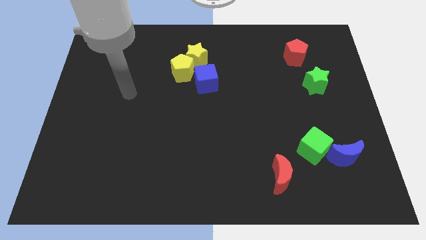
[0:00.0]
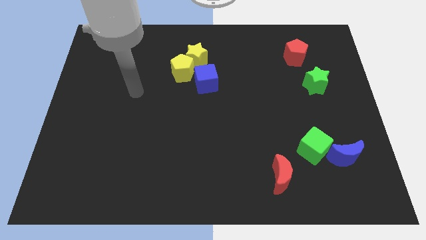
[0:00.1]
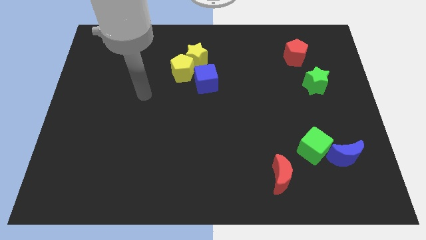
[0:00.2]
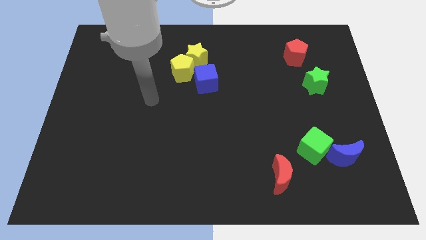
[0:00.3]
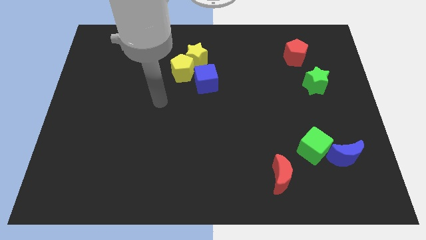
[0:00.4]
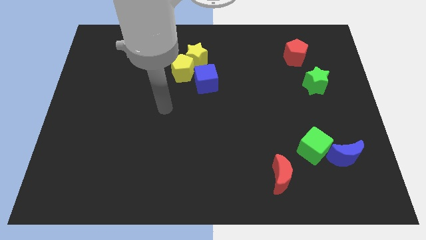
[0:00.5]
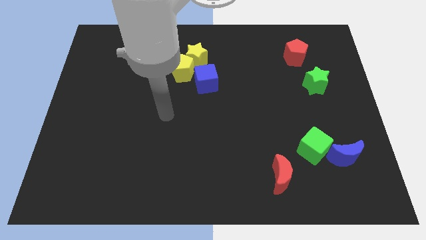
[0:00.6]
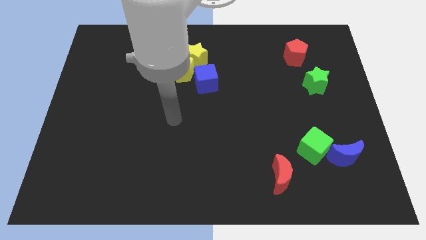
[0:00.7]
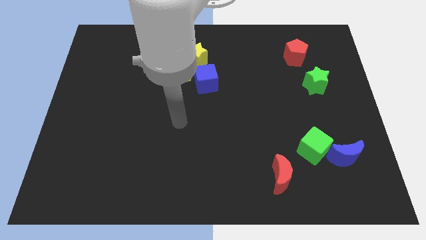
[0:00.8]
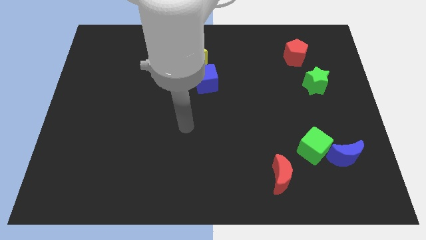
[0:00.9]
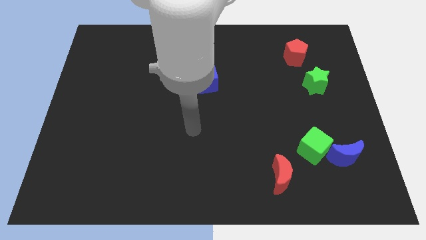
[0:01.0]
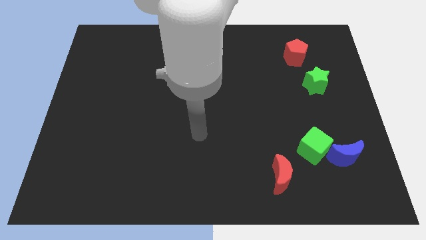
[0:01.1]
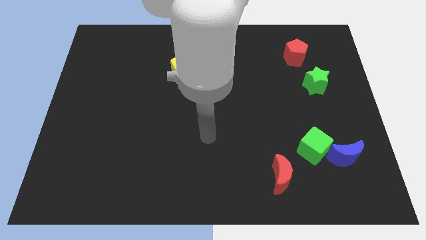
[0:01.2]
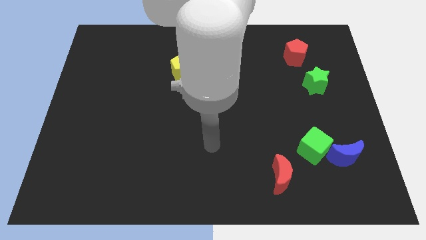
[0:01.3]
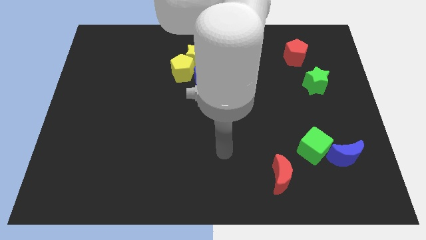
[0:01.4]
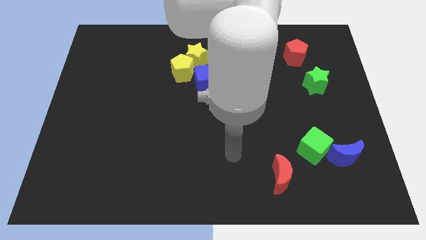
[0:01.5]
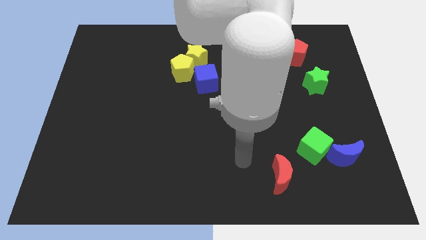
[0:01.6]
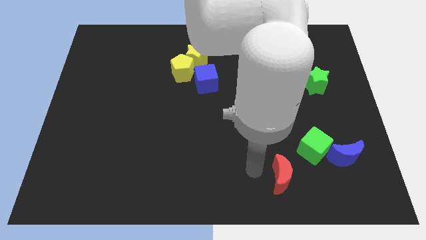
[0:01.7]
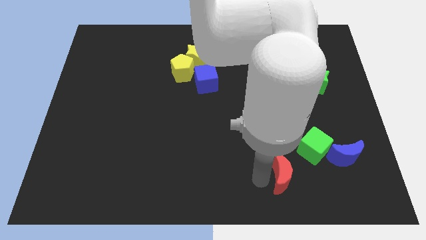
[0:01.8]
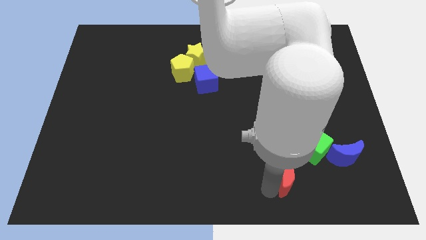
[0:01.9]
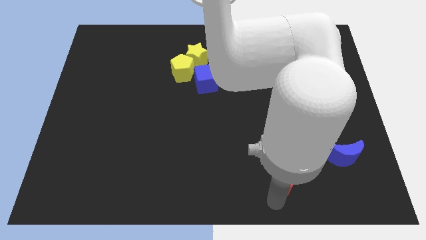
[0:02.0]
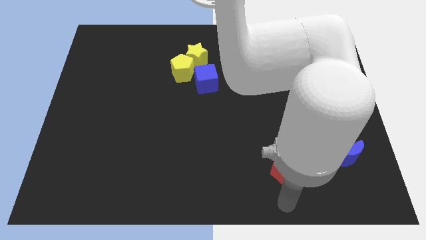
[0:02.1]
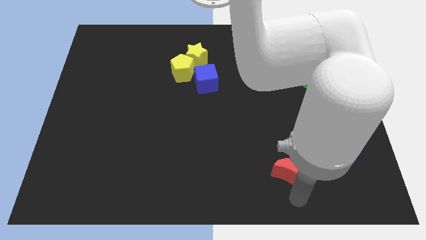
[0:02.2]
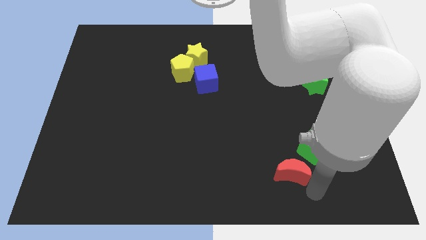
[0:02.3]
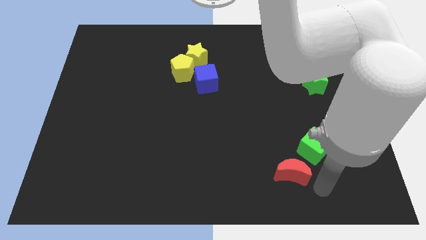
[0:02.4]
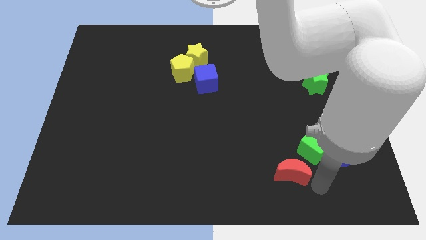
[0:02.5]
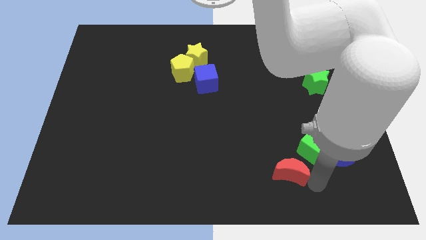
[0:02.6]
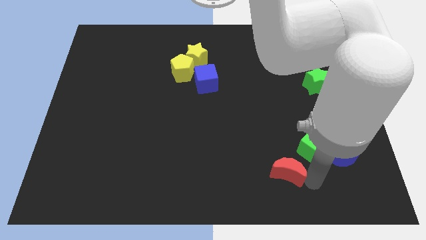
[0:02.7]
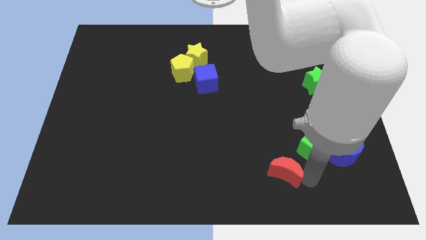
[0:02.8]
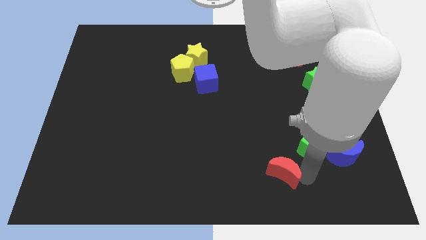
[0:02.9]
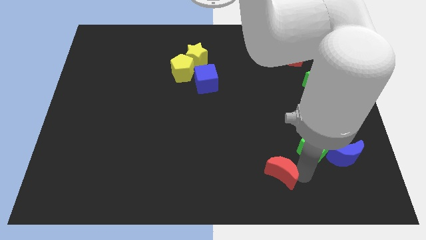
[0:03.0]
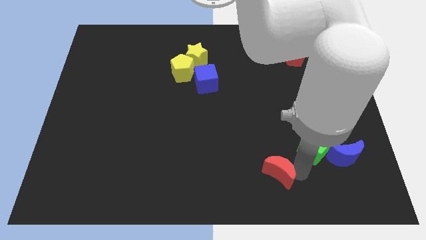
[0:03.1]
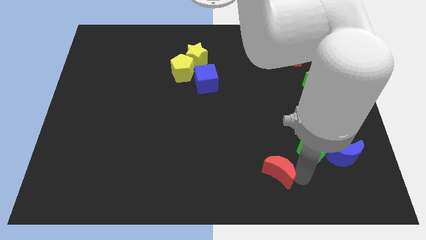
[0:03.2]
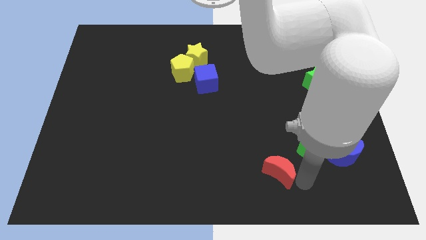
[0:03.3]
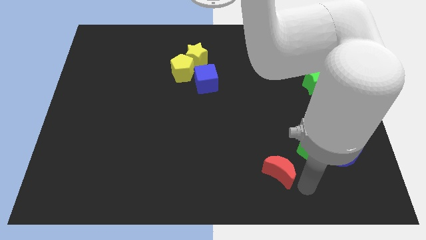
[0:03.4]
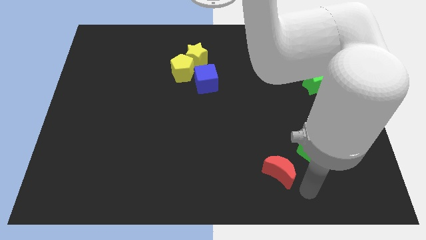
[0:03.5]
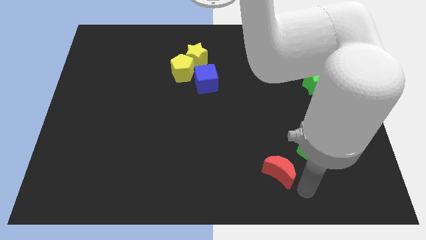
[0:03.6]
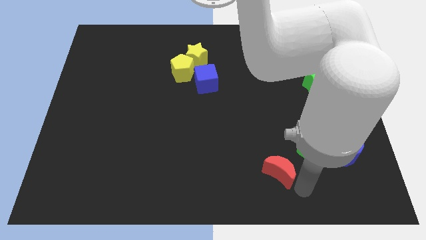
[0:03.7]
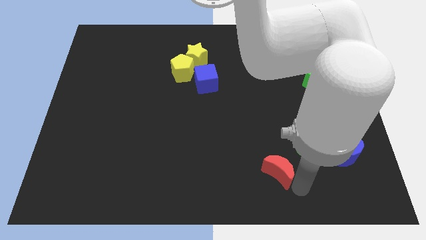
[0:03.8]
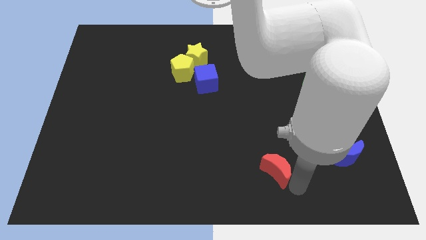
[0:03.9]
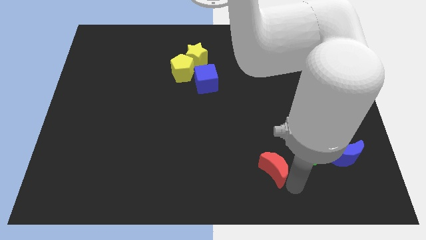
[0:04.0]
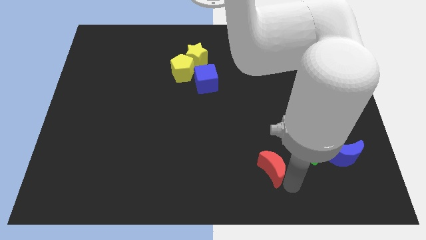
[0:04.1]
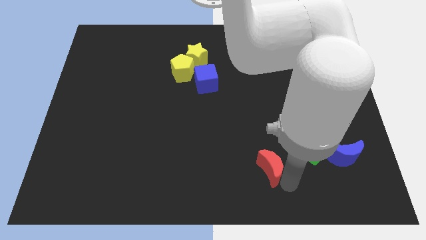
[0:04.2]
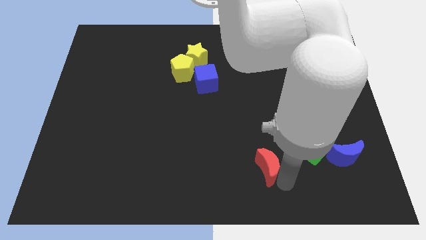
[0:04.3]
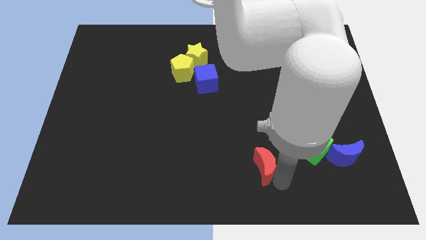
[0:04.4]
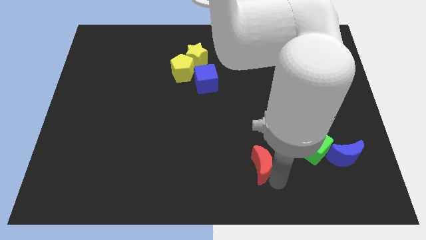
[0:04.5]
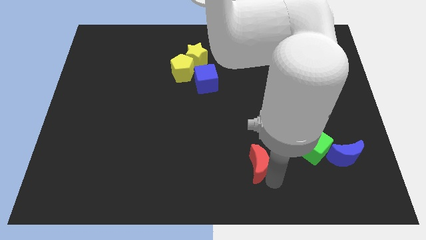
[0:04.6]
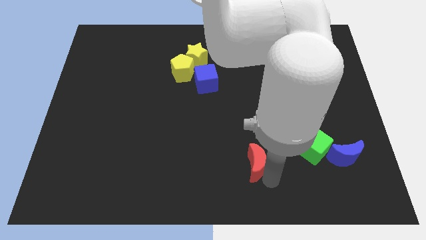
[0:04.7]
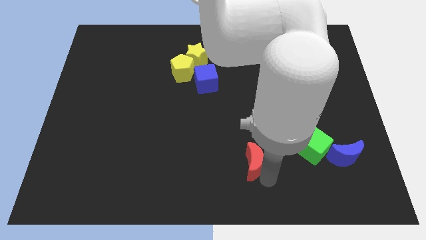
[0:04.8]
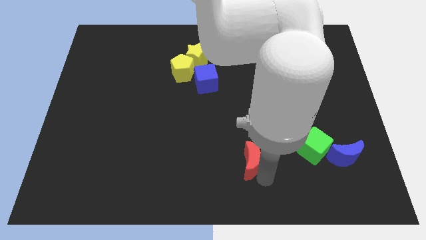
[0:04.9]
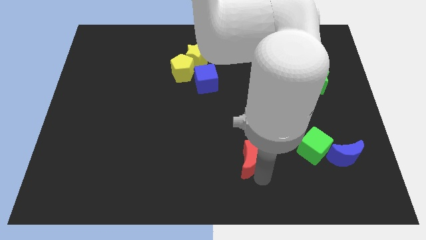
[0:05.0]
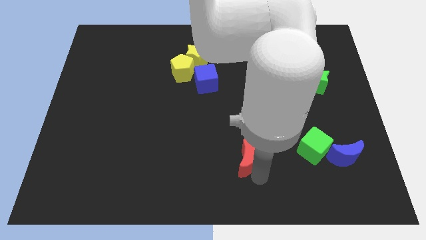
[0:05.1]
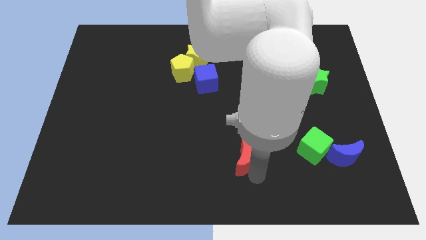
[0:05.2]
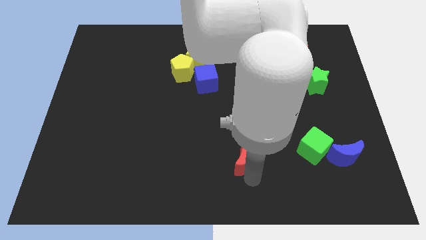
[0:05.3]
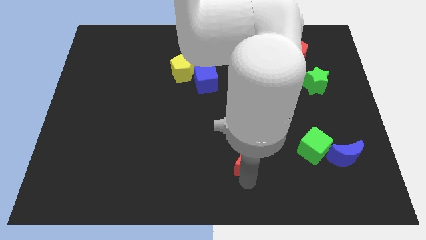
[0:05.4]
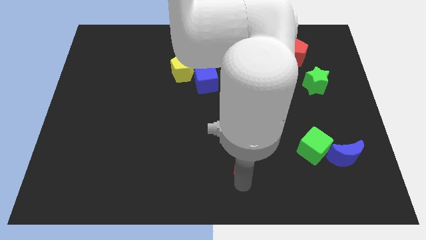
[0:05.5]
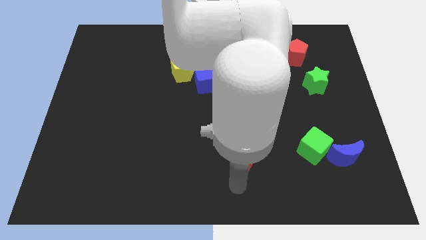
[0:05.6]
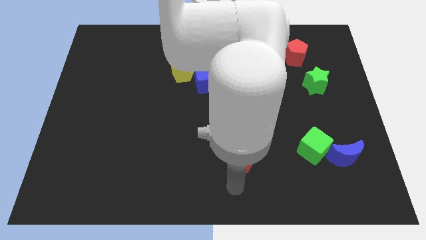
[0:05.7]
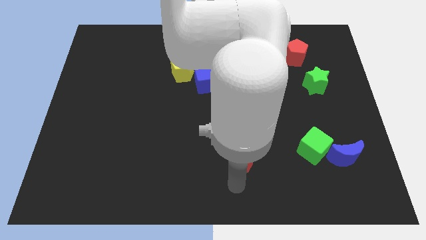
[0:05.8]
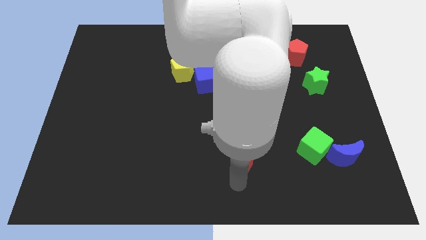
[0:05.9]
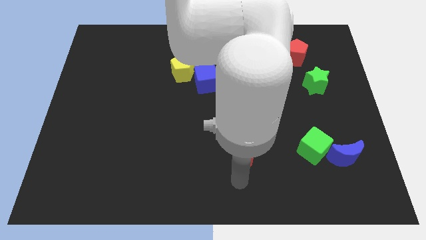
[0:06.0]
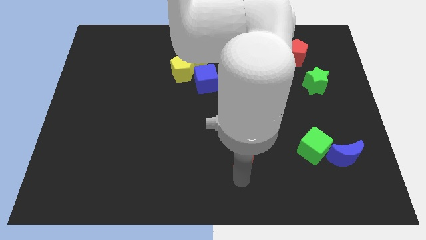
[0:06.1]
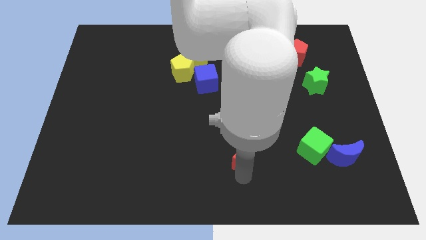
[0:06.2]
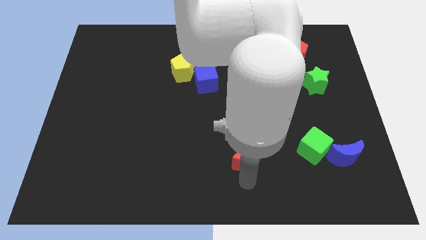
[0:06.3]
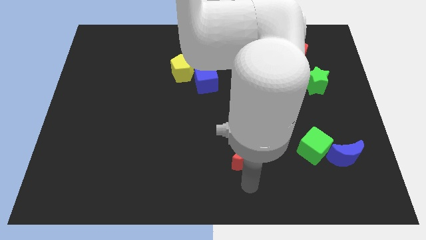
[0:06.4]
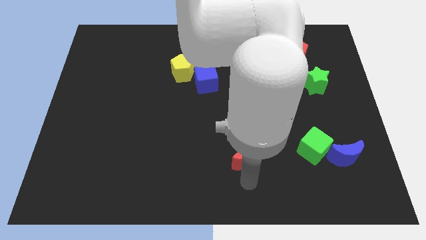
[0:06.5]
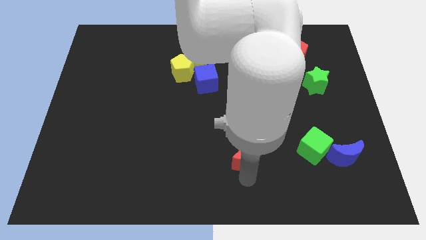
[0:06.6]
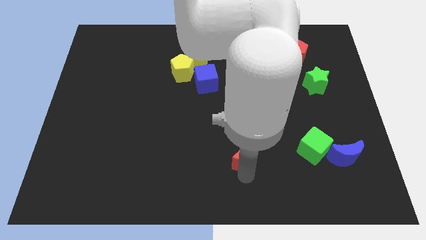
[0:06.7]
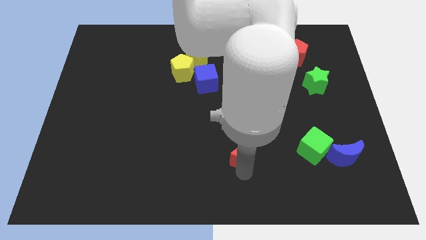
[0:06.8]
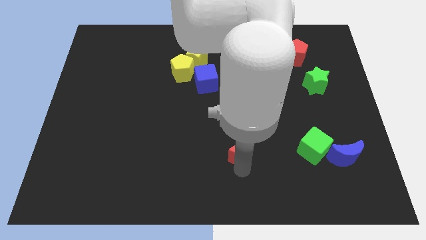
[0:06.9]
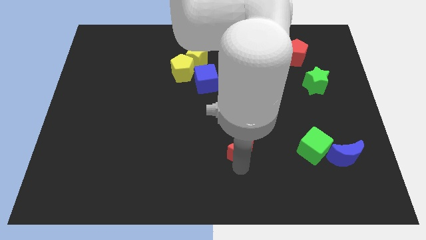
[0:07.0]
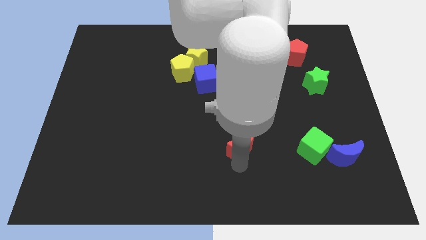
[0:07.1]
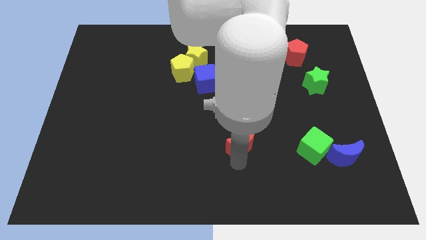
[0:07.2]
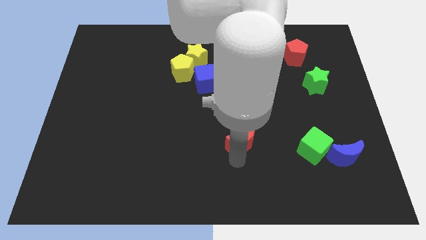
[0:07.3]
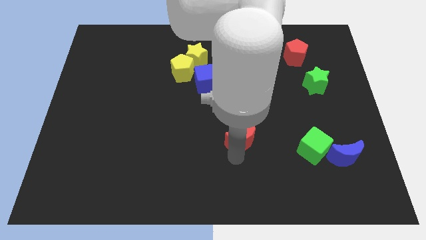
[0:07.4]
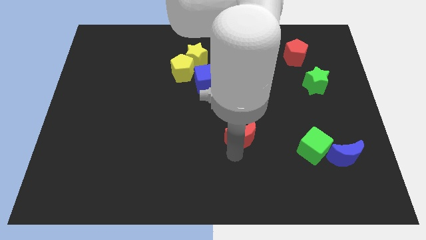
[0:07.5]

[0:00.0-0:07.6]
slide the red moon to the middle of the board
